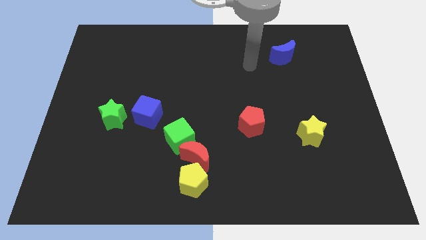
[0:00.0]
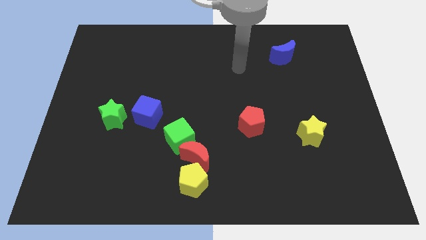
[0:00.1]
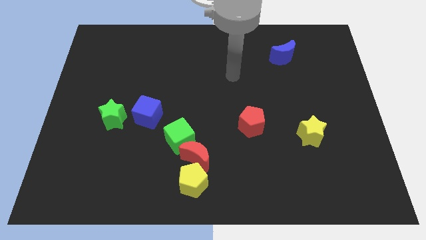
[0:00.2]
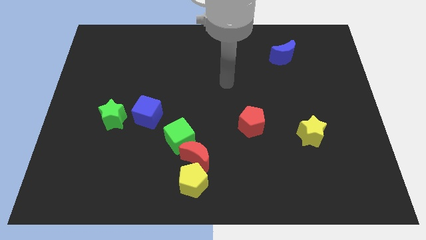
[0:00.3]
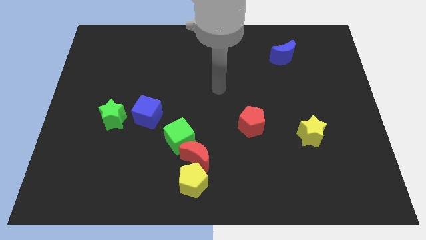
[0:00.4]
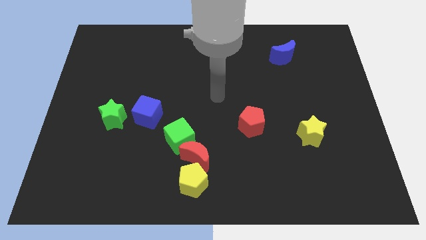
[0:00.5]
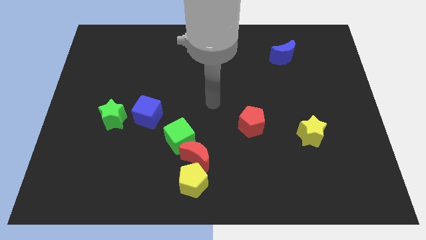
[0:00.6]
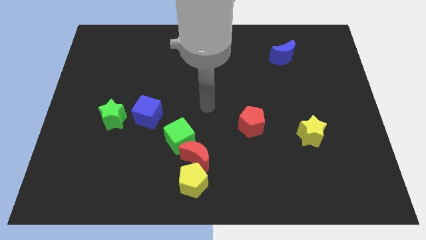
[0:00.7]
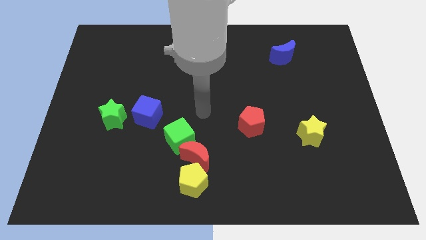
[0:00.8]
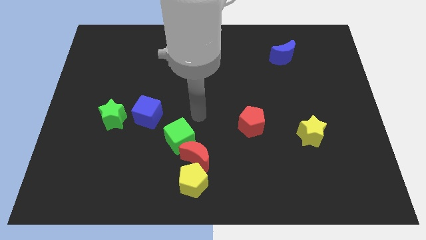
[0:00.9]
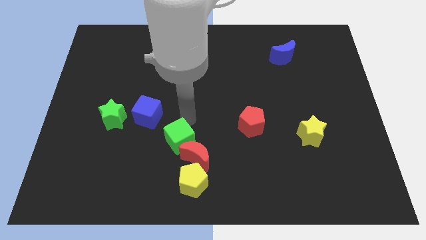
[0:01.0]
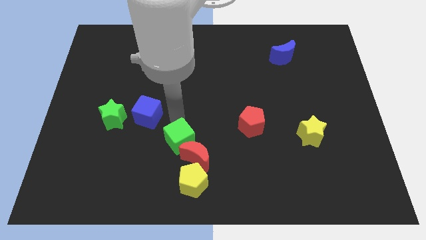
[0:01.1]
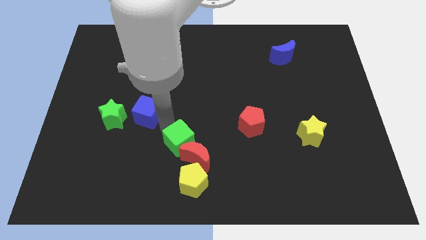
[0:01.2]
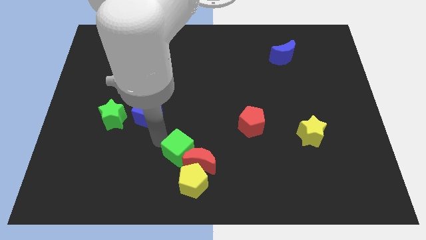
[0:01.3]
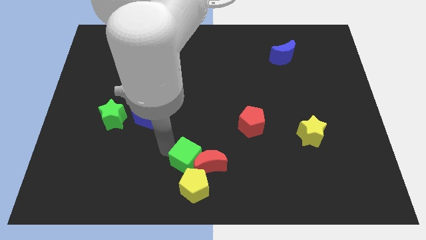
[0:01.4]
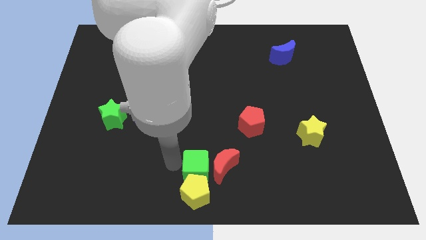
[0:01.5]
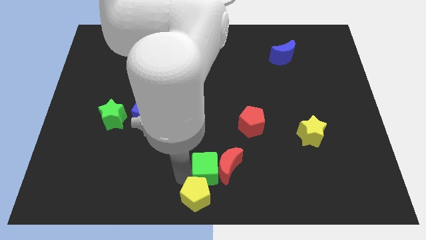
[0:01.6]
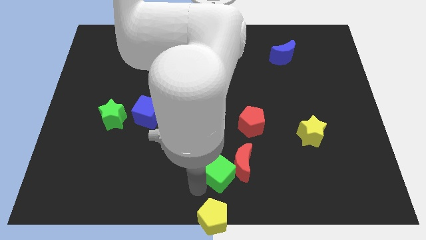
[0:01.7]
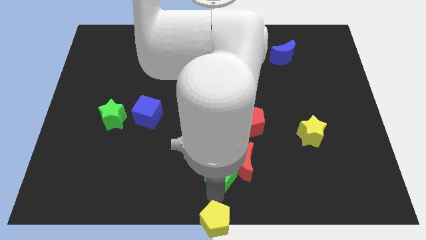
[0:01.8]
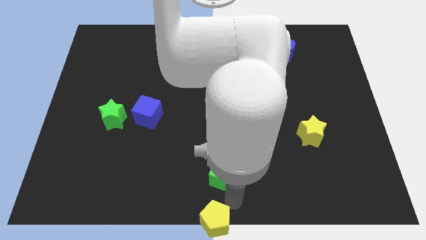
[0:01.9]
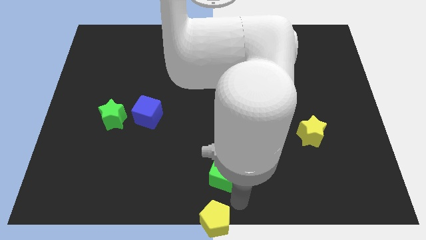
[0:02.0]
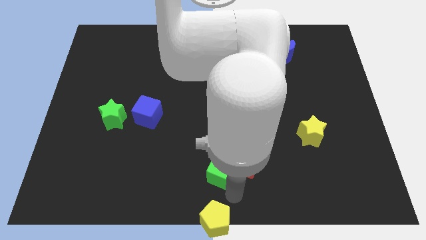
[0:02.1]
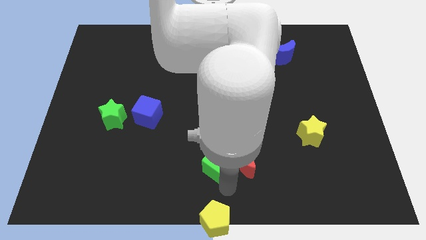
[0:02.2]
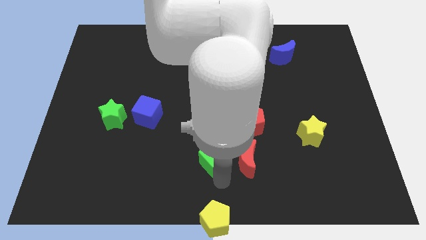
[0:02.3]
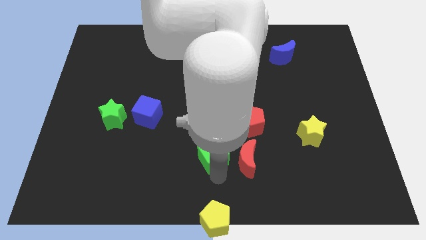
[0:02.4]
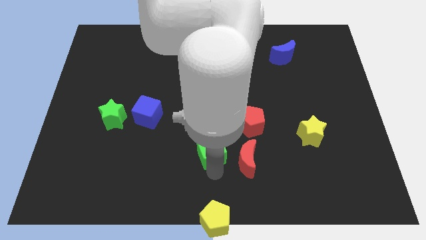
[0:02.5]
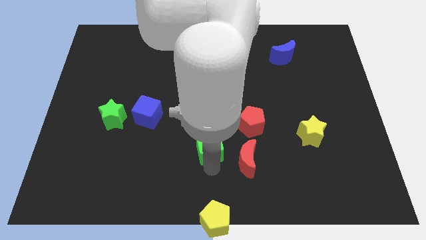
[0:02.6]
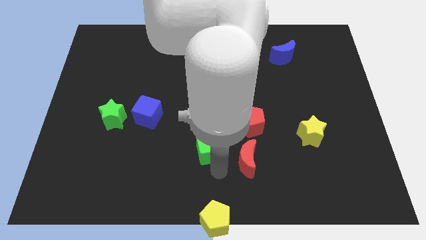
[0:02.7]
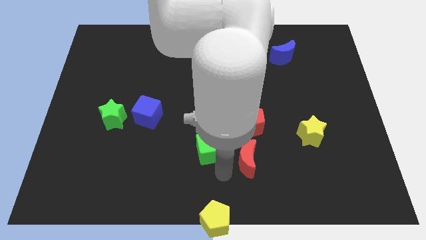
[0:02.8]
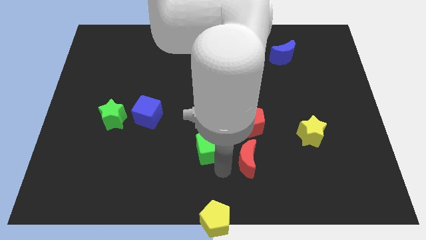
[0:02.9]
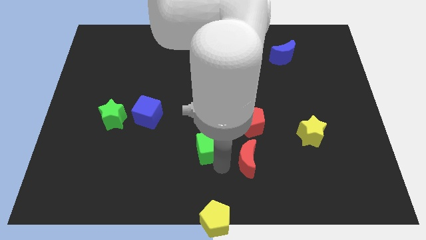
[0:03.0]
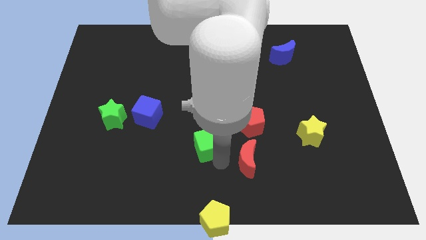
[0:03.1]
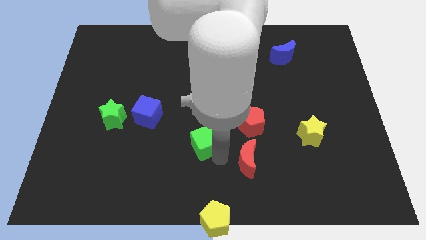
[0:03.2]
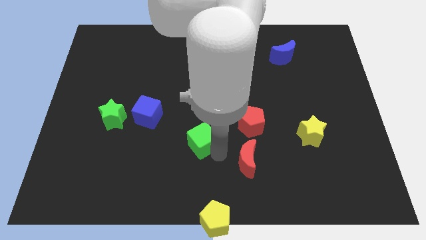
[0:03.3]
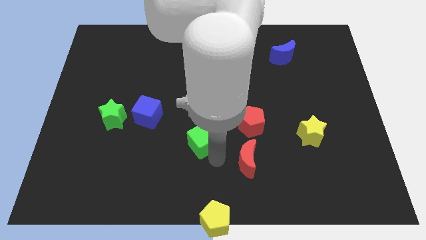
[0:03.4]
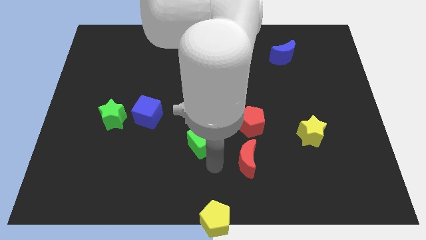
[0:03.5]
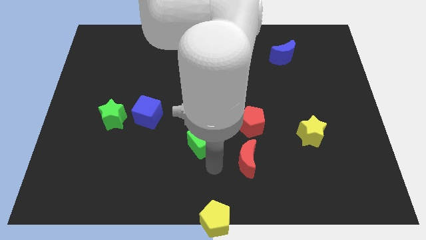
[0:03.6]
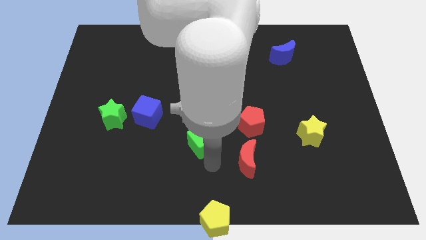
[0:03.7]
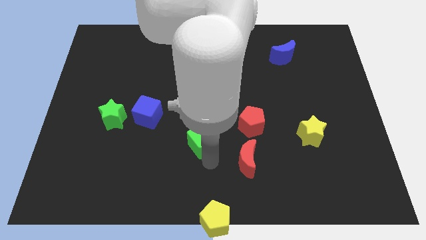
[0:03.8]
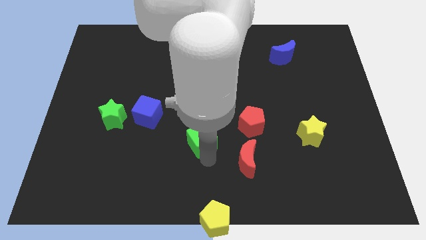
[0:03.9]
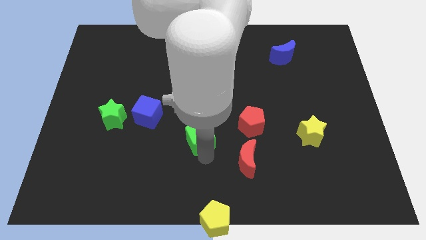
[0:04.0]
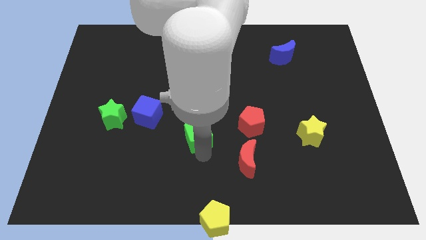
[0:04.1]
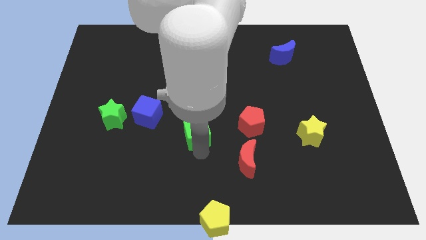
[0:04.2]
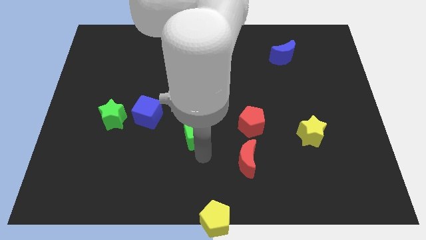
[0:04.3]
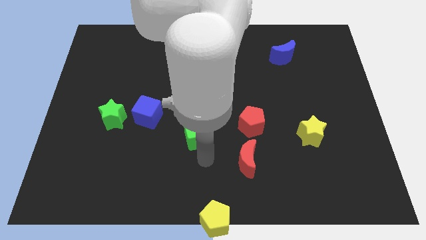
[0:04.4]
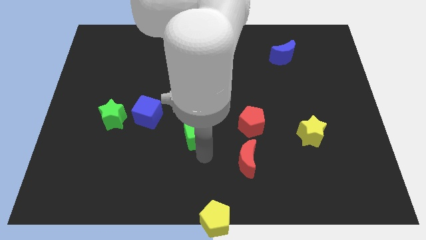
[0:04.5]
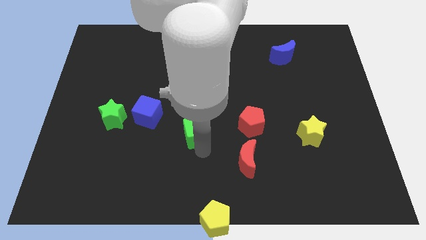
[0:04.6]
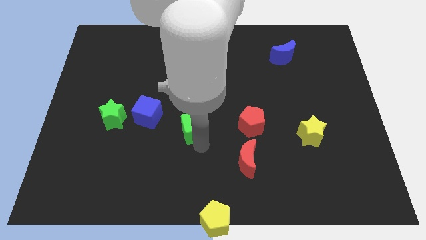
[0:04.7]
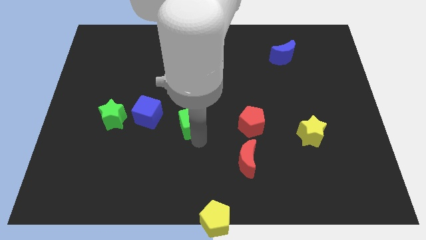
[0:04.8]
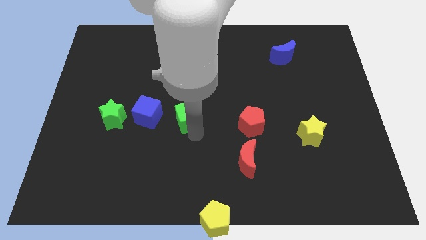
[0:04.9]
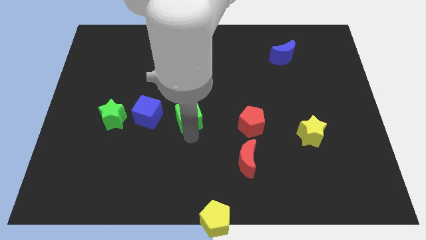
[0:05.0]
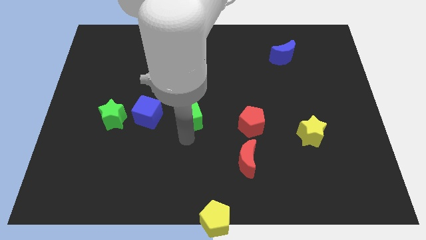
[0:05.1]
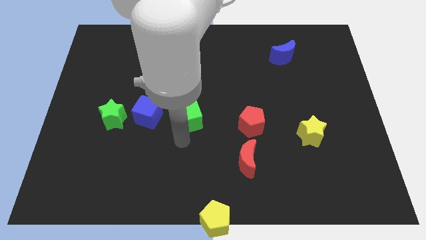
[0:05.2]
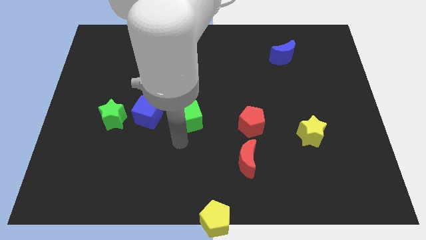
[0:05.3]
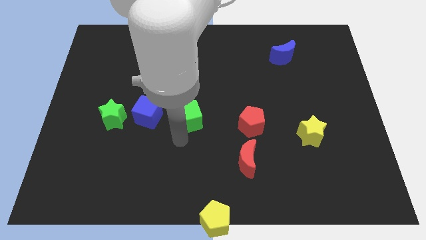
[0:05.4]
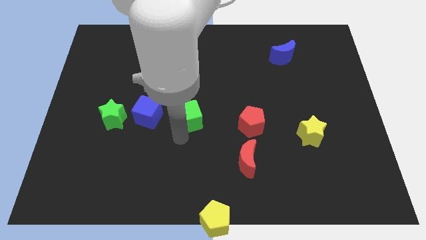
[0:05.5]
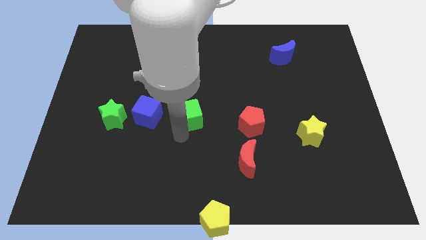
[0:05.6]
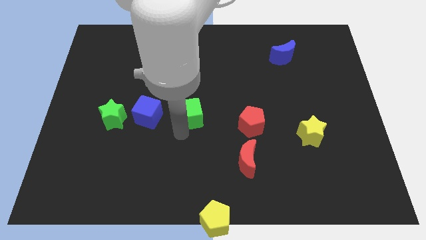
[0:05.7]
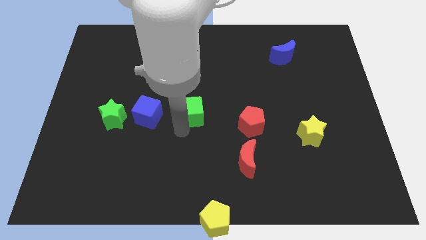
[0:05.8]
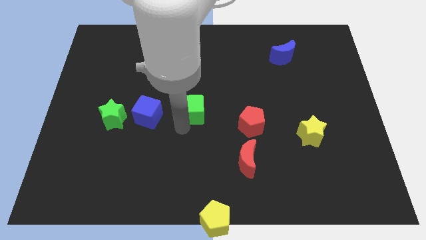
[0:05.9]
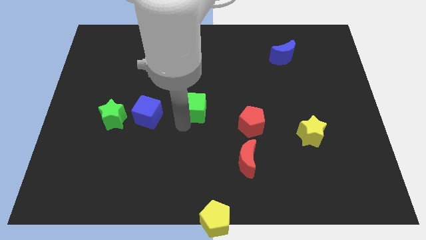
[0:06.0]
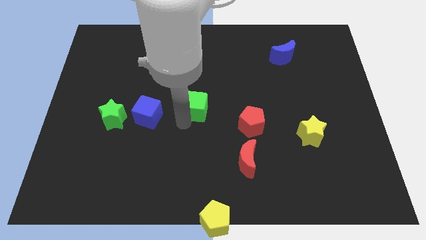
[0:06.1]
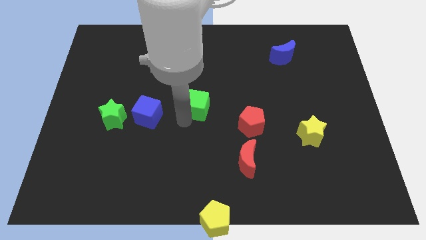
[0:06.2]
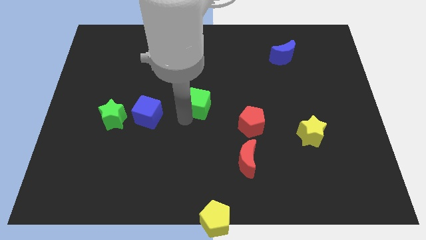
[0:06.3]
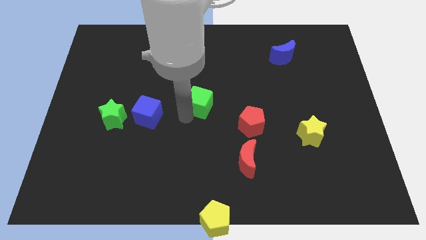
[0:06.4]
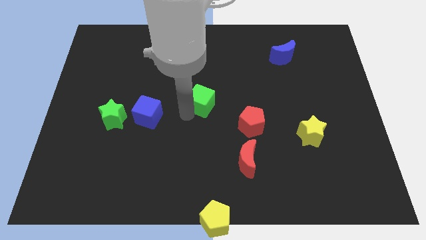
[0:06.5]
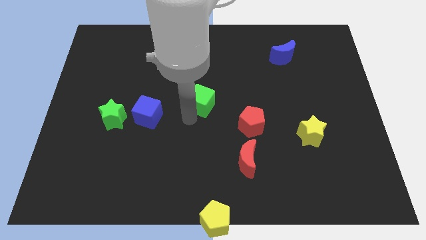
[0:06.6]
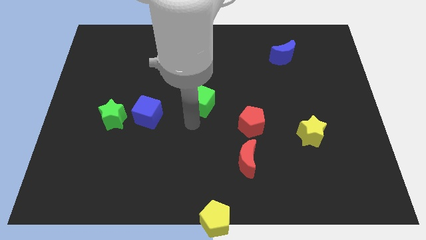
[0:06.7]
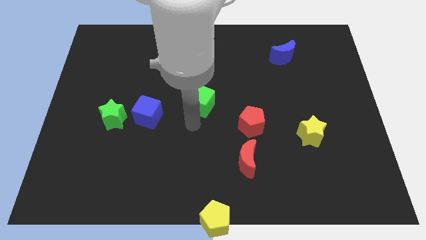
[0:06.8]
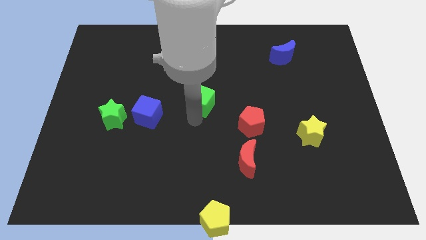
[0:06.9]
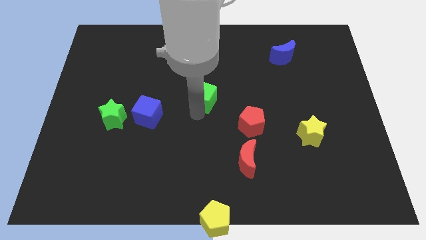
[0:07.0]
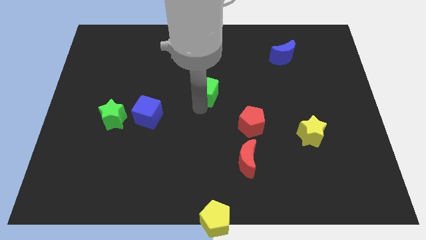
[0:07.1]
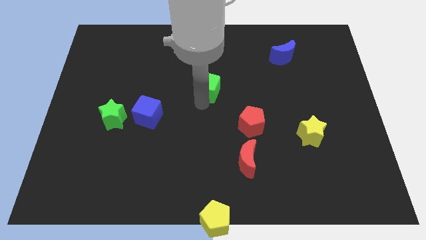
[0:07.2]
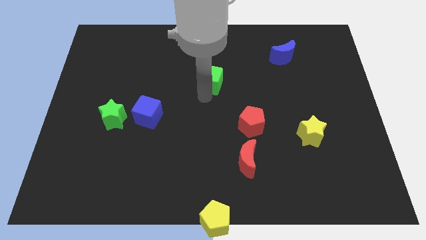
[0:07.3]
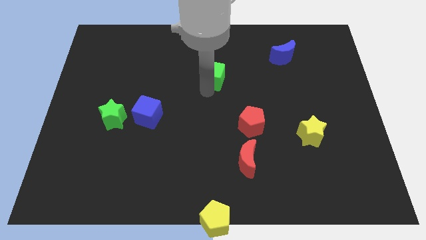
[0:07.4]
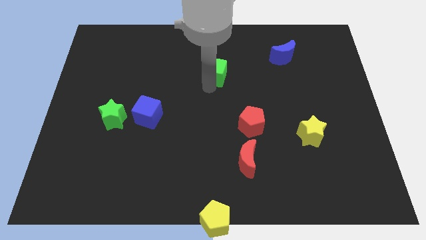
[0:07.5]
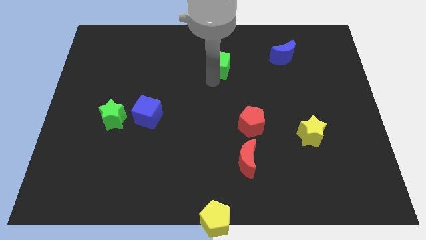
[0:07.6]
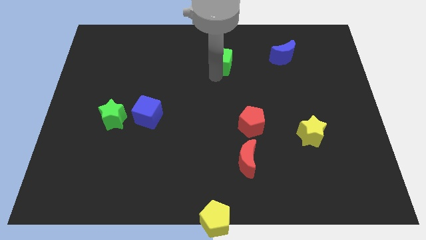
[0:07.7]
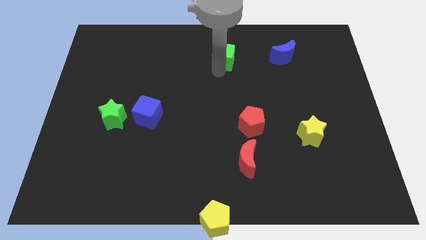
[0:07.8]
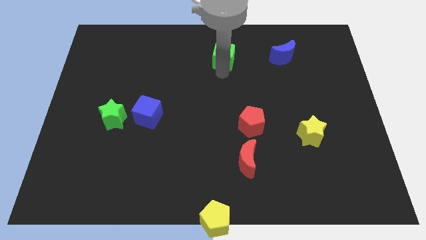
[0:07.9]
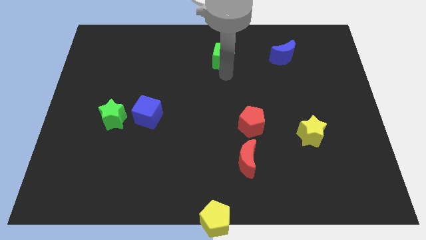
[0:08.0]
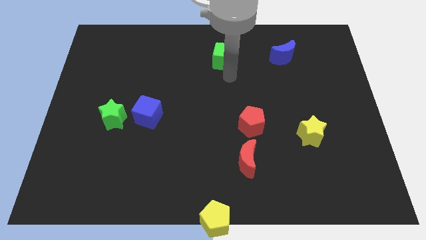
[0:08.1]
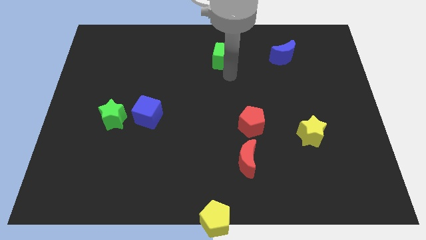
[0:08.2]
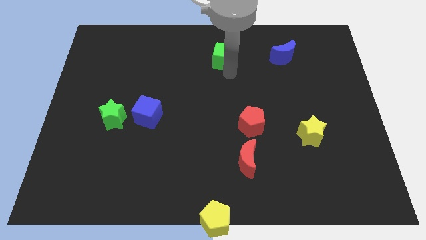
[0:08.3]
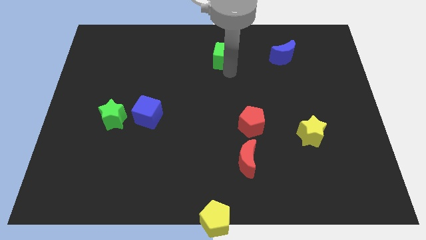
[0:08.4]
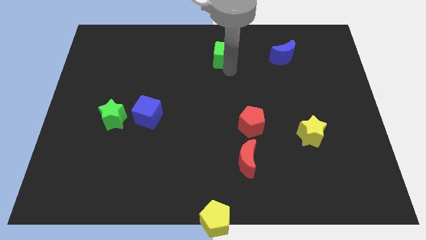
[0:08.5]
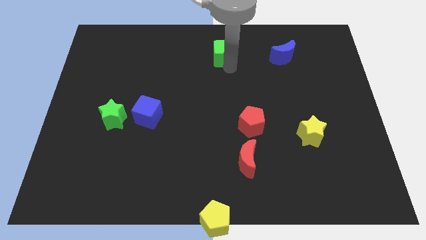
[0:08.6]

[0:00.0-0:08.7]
push the green cube to the top
